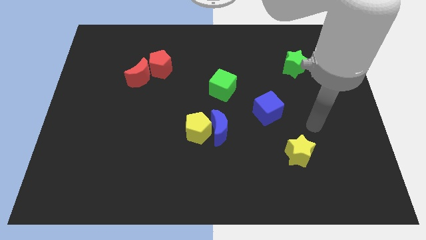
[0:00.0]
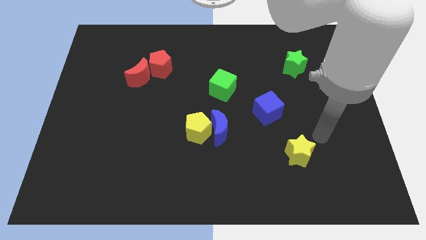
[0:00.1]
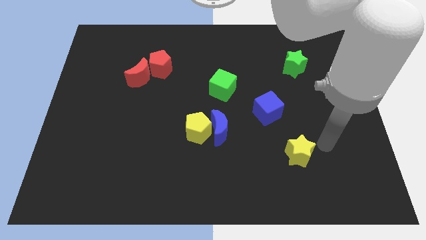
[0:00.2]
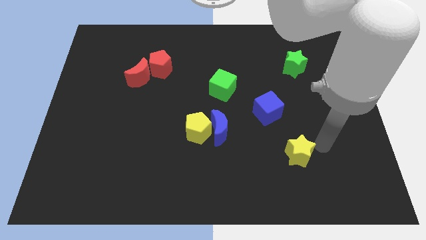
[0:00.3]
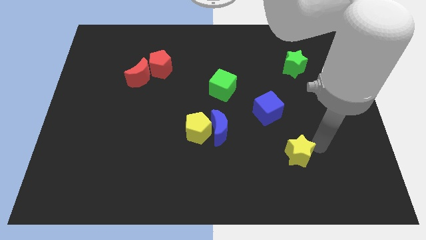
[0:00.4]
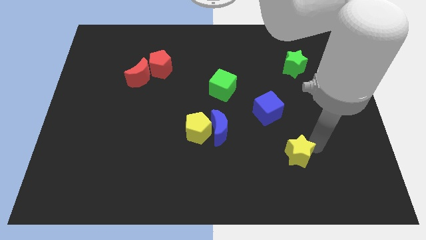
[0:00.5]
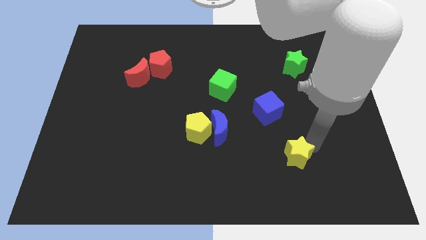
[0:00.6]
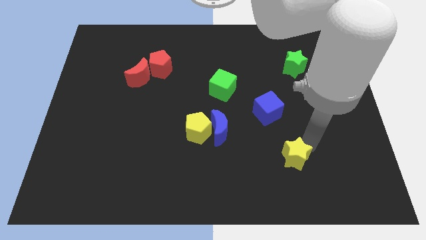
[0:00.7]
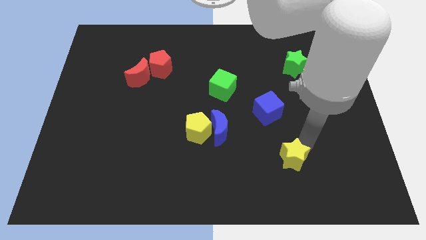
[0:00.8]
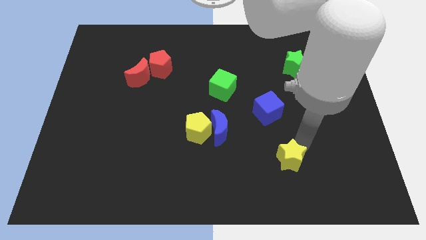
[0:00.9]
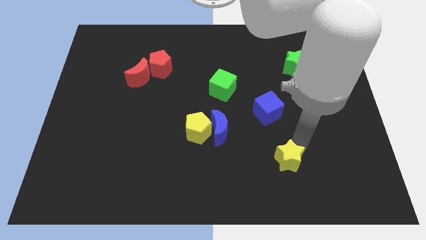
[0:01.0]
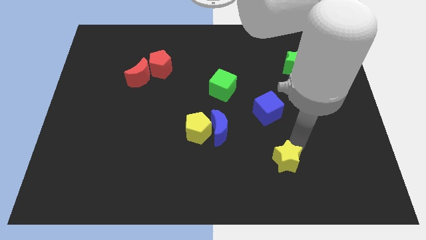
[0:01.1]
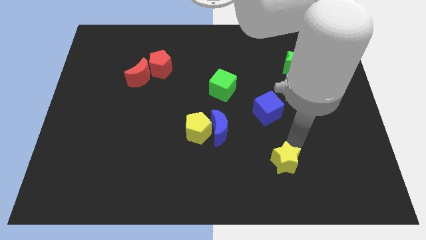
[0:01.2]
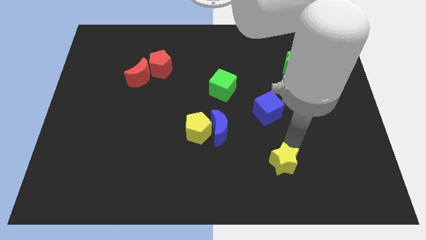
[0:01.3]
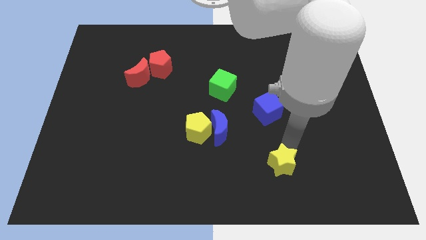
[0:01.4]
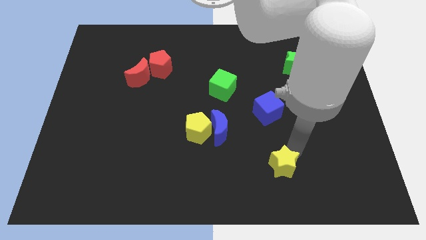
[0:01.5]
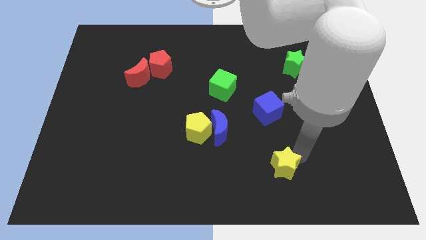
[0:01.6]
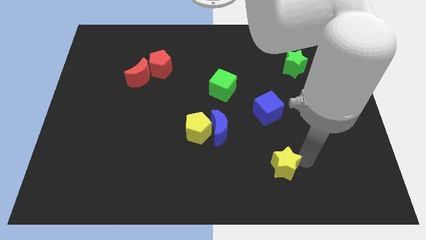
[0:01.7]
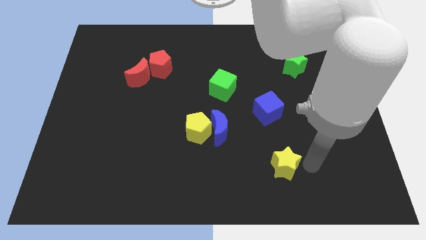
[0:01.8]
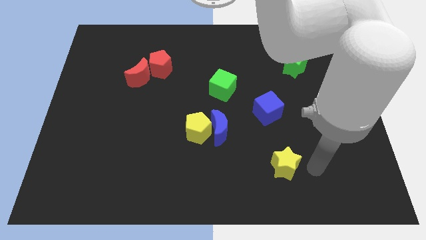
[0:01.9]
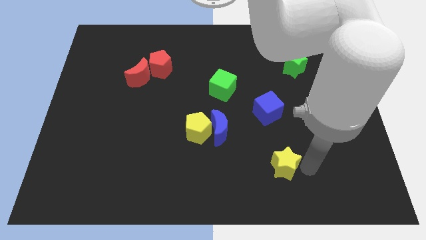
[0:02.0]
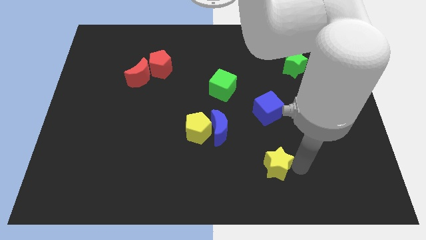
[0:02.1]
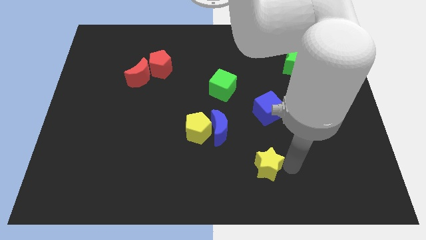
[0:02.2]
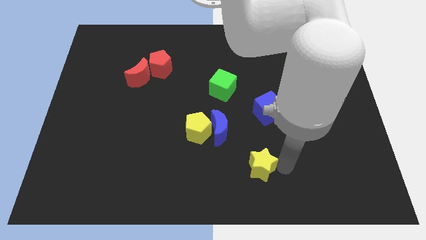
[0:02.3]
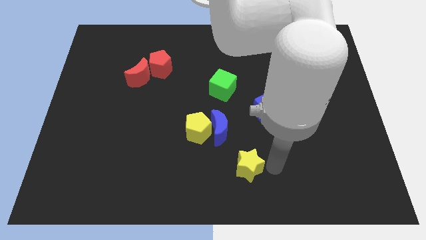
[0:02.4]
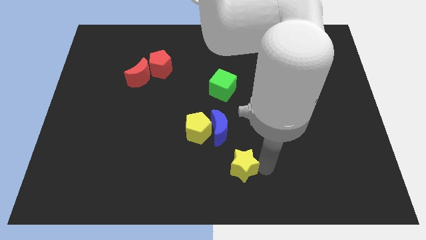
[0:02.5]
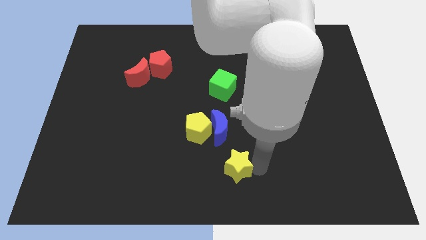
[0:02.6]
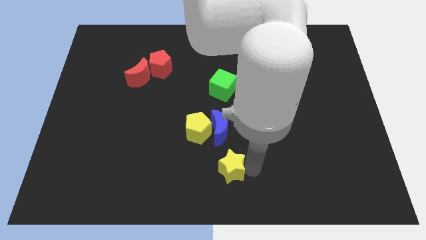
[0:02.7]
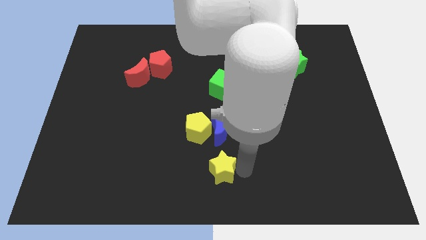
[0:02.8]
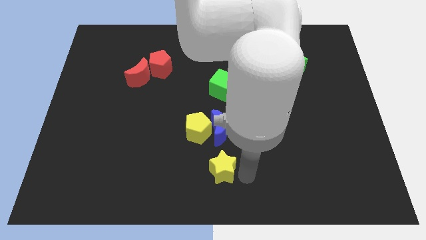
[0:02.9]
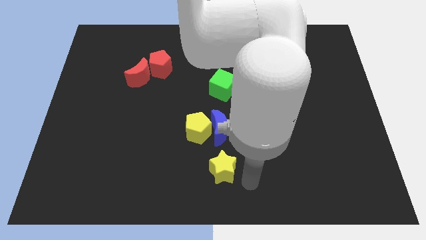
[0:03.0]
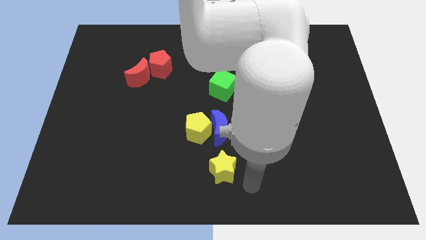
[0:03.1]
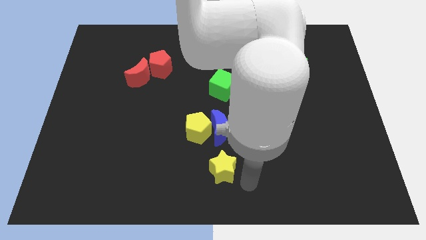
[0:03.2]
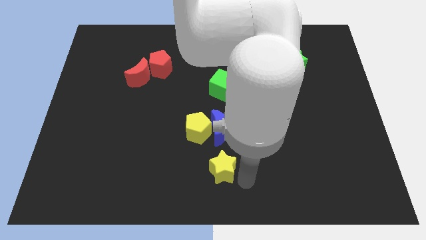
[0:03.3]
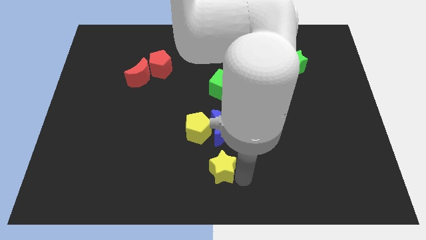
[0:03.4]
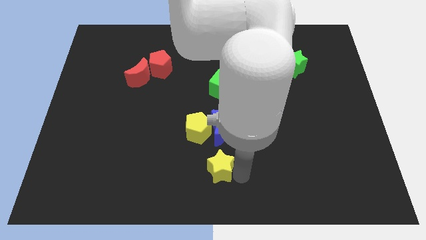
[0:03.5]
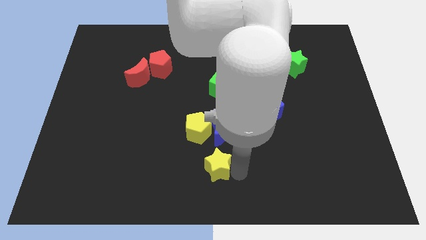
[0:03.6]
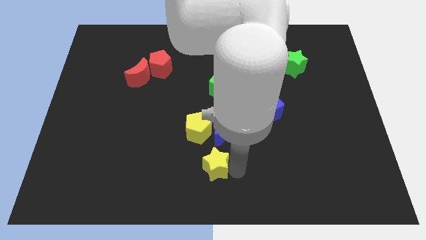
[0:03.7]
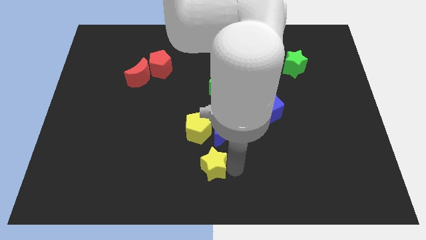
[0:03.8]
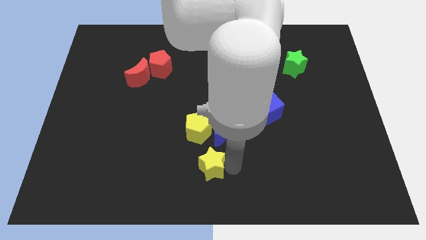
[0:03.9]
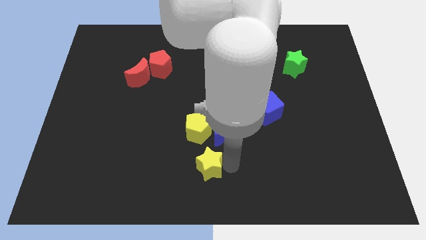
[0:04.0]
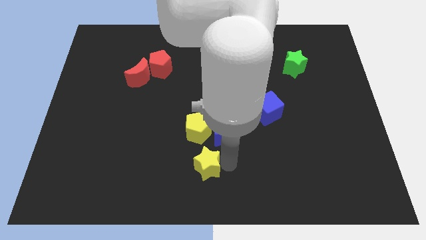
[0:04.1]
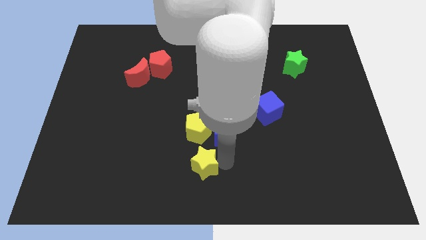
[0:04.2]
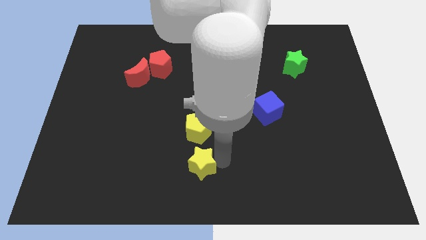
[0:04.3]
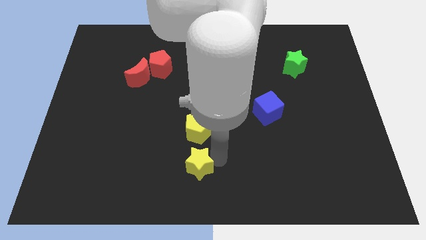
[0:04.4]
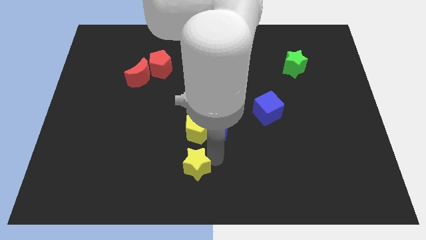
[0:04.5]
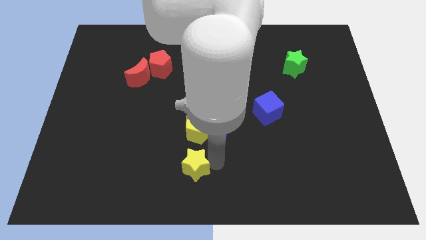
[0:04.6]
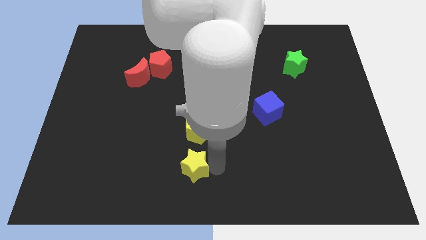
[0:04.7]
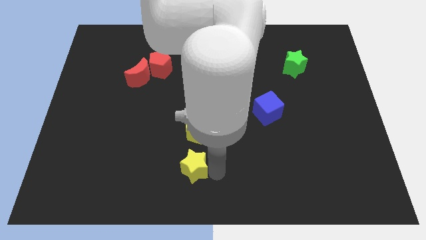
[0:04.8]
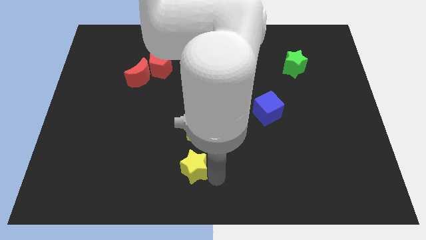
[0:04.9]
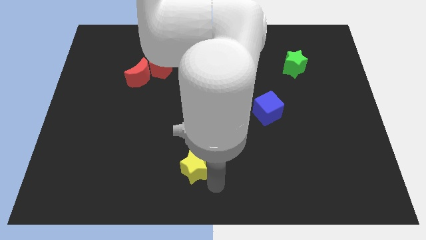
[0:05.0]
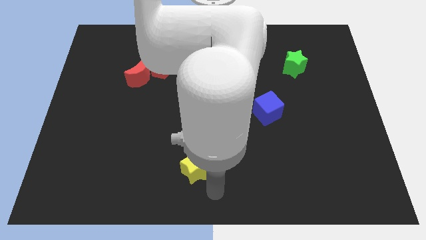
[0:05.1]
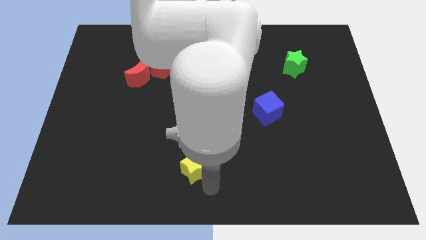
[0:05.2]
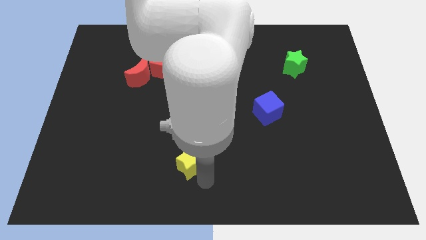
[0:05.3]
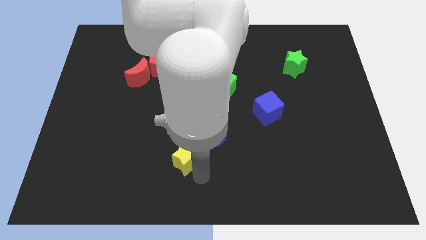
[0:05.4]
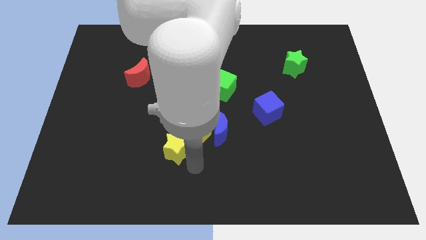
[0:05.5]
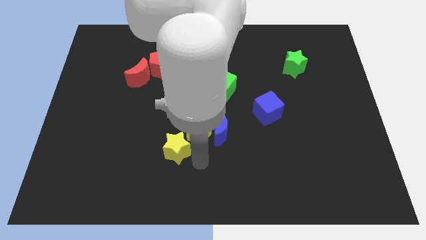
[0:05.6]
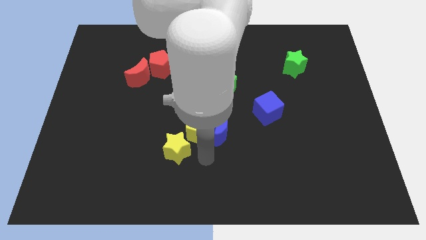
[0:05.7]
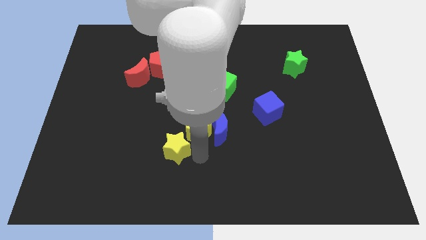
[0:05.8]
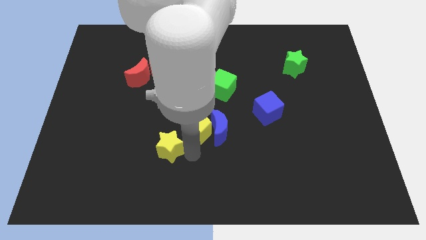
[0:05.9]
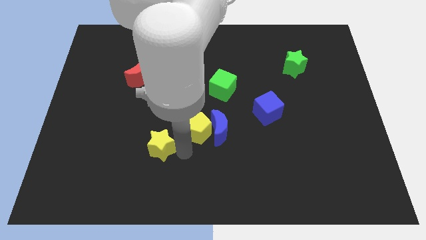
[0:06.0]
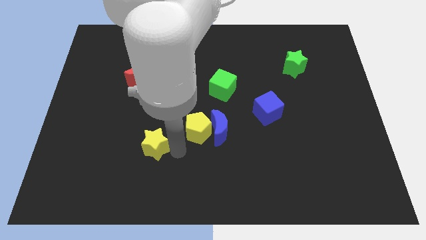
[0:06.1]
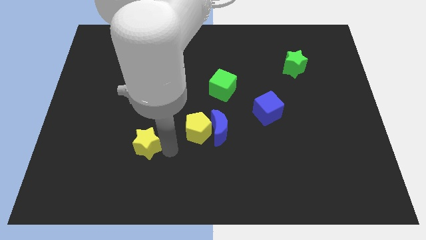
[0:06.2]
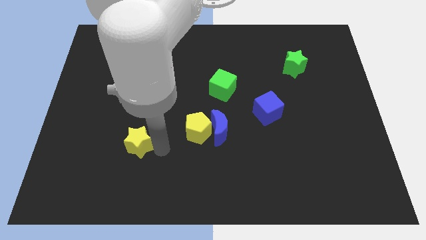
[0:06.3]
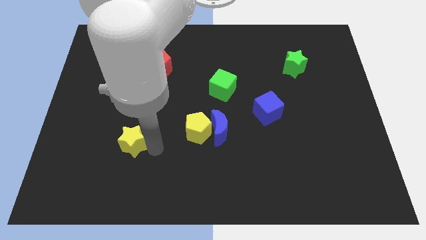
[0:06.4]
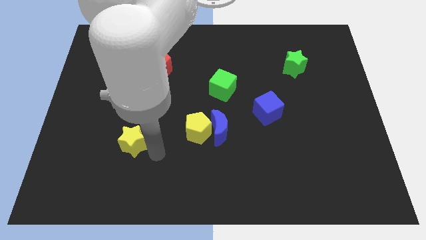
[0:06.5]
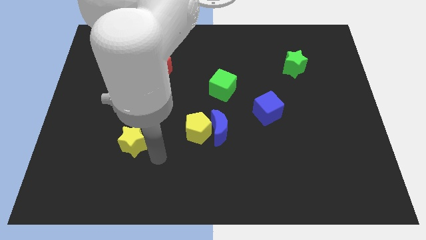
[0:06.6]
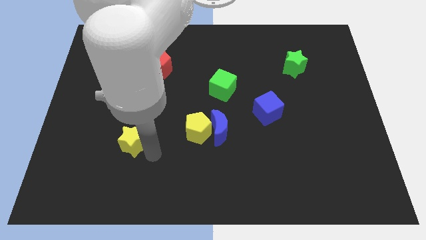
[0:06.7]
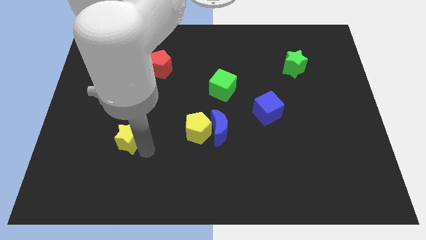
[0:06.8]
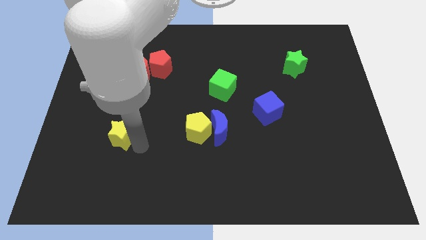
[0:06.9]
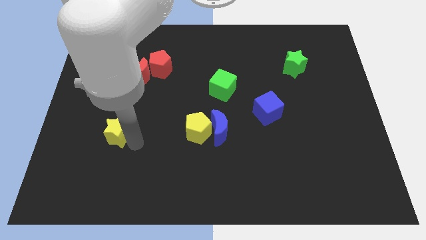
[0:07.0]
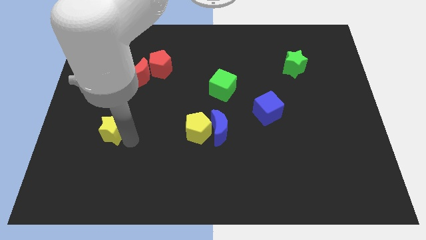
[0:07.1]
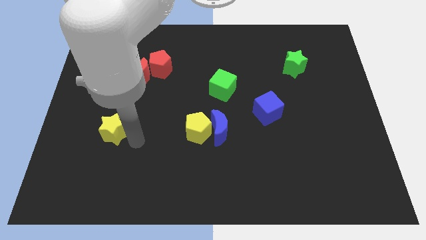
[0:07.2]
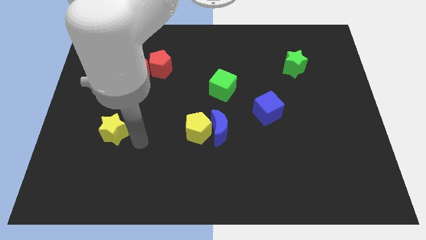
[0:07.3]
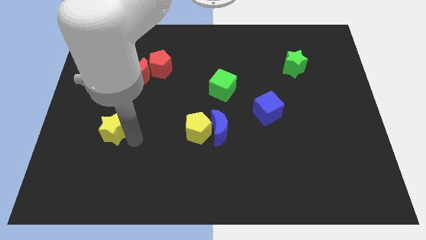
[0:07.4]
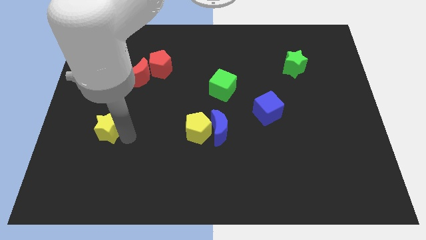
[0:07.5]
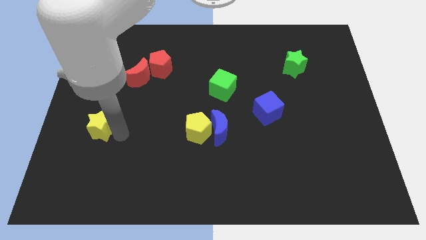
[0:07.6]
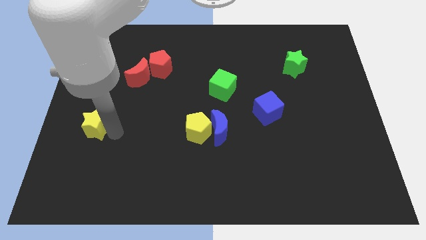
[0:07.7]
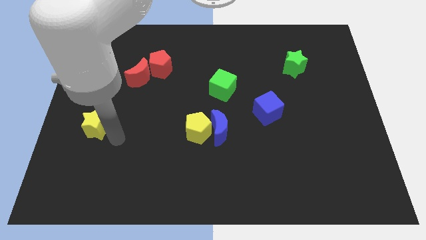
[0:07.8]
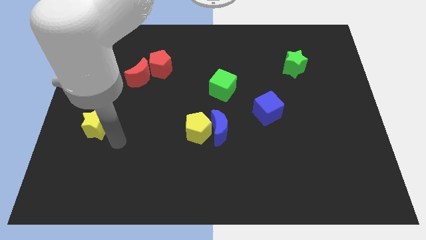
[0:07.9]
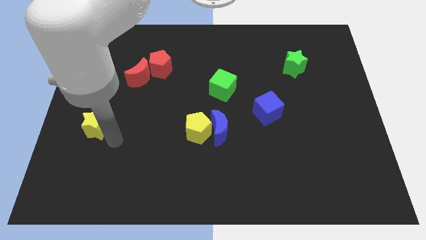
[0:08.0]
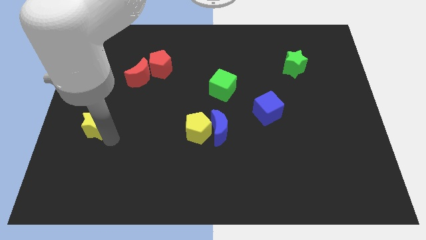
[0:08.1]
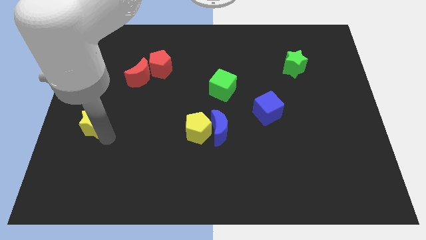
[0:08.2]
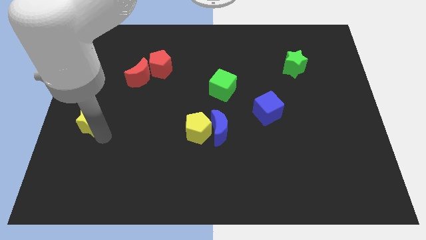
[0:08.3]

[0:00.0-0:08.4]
move the yellow star to the center left
